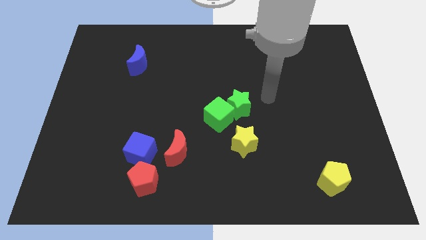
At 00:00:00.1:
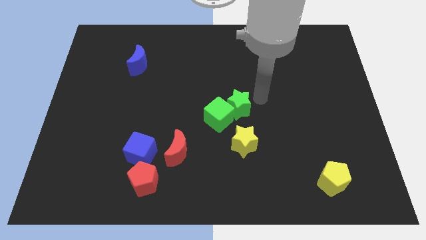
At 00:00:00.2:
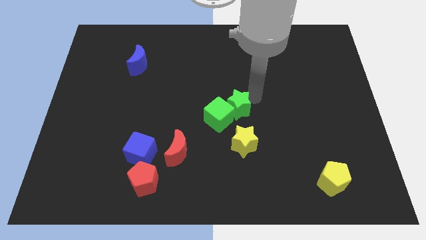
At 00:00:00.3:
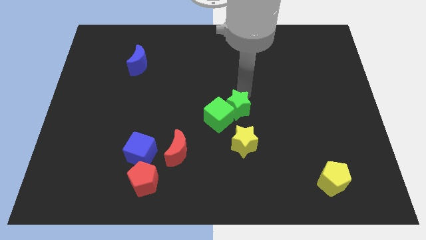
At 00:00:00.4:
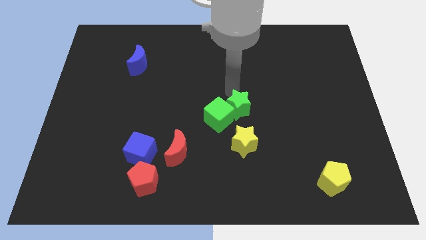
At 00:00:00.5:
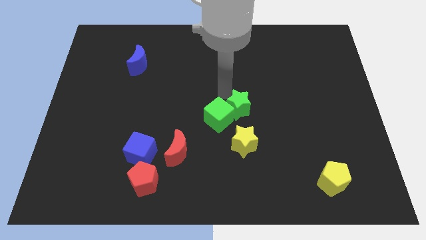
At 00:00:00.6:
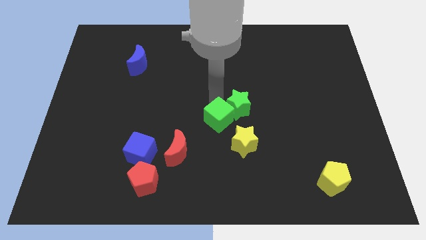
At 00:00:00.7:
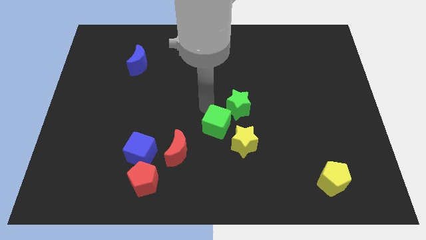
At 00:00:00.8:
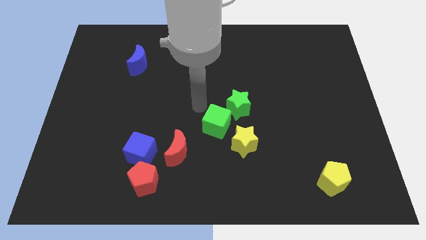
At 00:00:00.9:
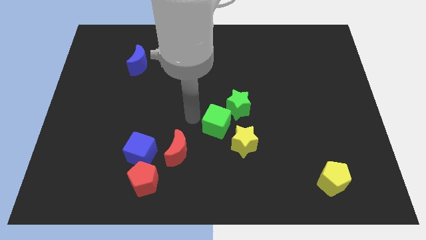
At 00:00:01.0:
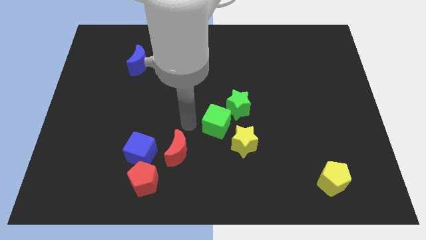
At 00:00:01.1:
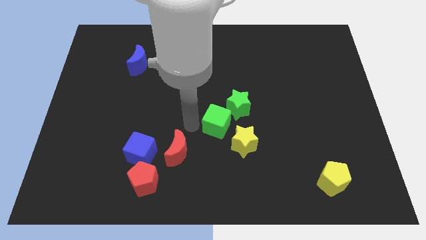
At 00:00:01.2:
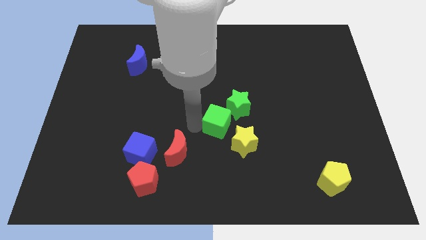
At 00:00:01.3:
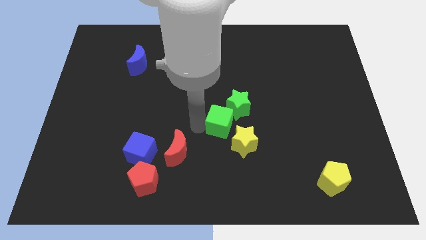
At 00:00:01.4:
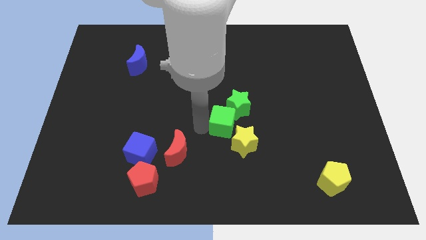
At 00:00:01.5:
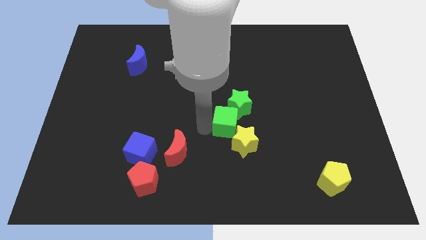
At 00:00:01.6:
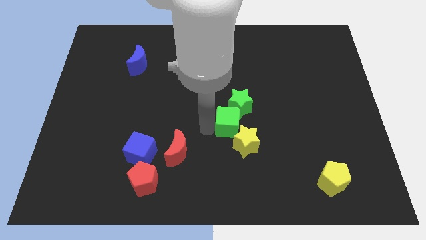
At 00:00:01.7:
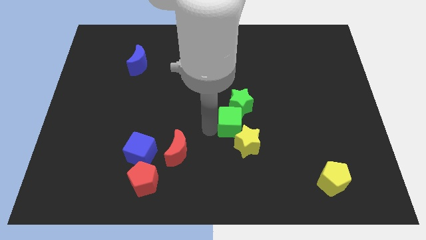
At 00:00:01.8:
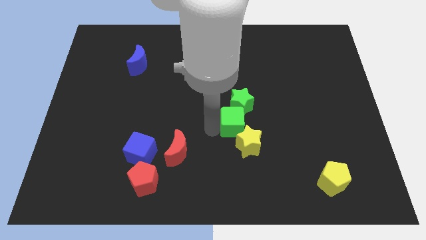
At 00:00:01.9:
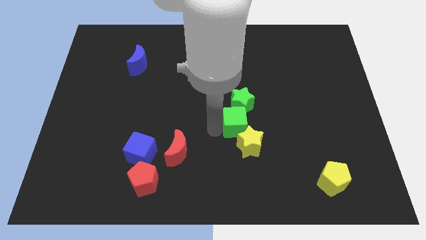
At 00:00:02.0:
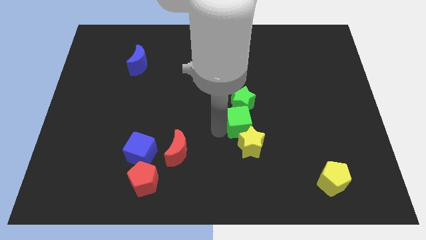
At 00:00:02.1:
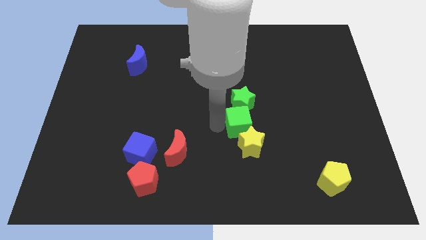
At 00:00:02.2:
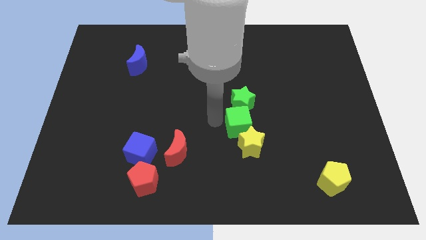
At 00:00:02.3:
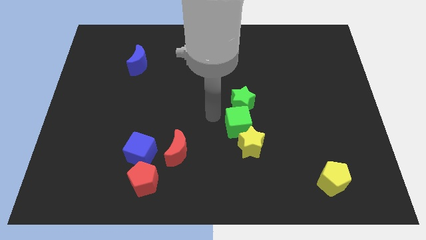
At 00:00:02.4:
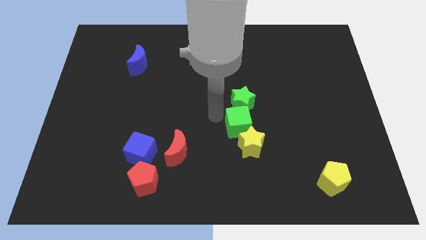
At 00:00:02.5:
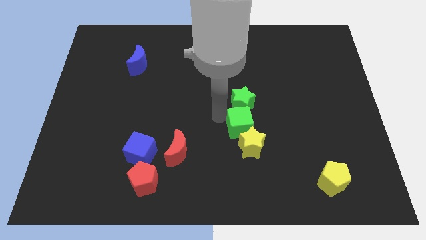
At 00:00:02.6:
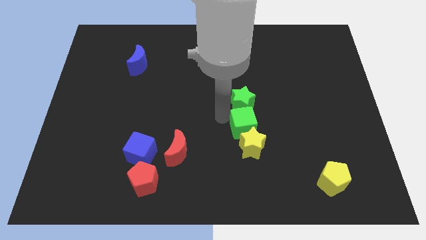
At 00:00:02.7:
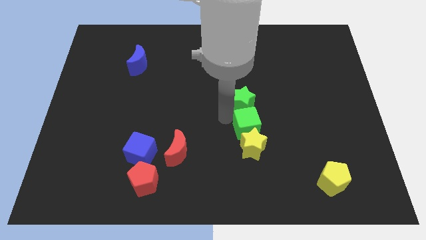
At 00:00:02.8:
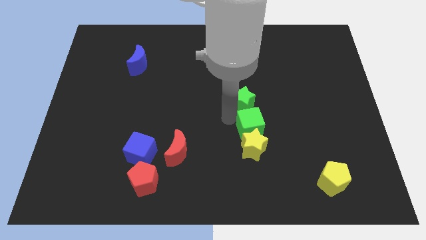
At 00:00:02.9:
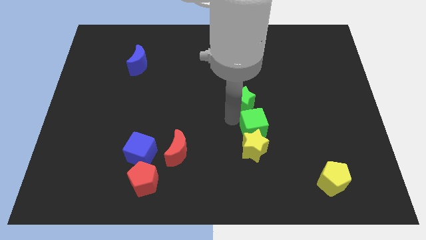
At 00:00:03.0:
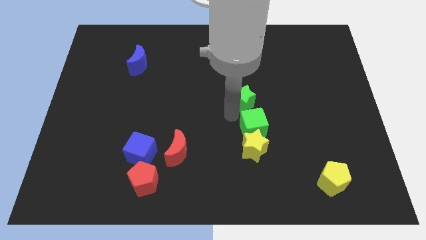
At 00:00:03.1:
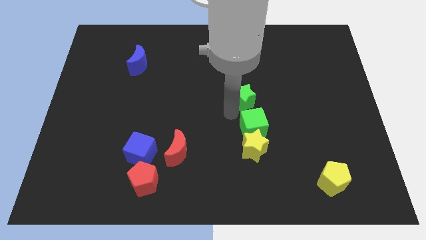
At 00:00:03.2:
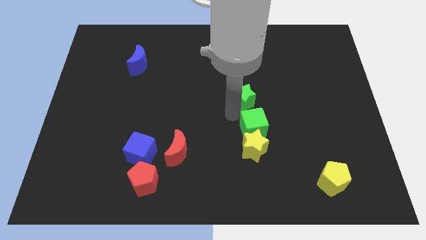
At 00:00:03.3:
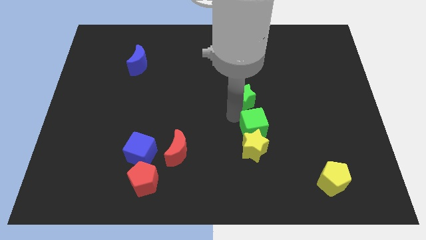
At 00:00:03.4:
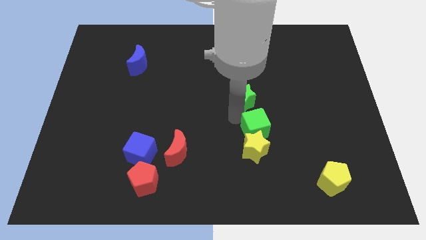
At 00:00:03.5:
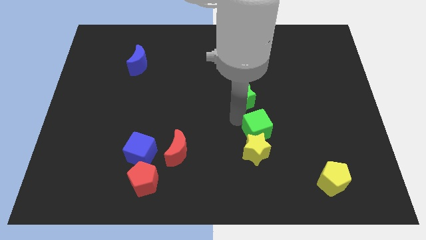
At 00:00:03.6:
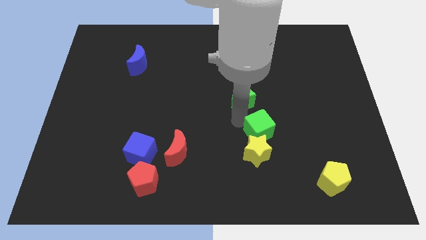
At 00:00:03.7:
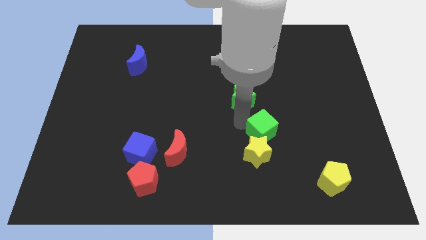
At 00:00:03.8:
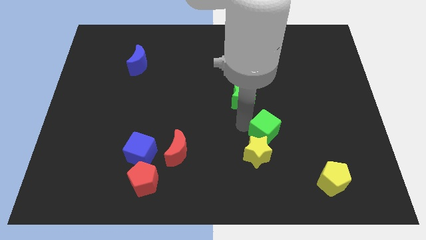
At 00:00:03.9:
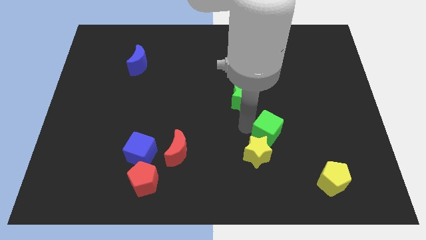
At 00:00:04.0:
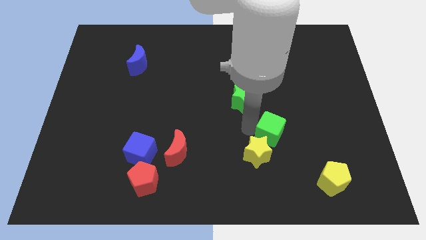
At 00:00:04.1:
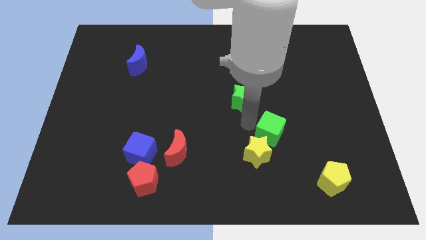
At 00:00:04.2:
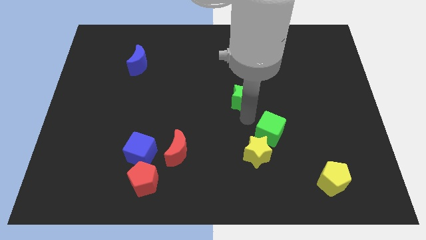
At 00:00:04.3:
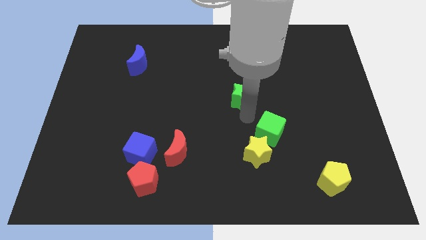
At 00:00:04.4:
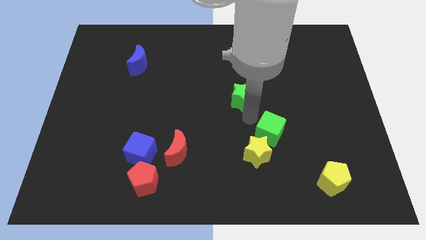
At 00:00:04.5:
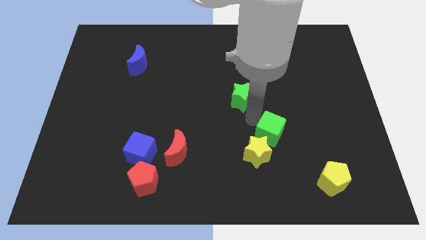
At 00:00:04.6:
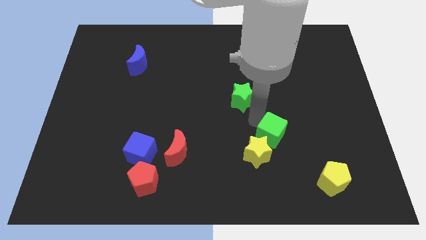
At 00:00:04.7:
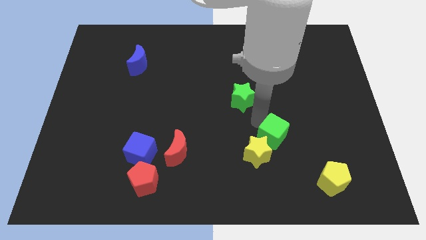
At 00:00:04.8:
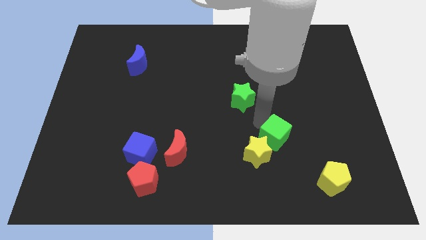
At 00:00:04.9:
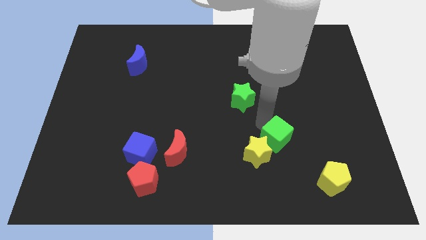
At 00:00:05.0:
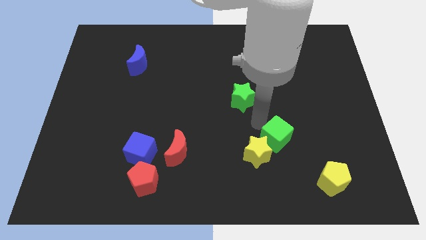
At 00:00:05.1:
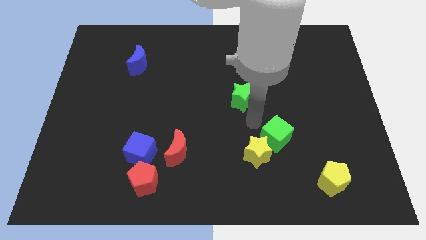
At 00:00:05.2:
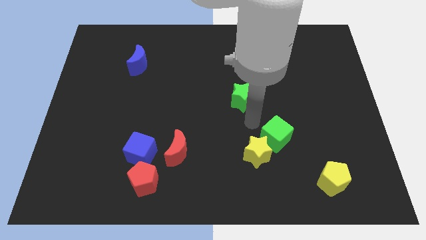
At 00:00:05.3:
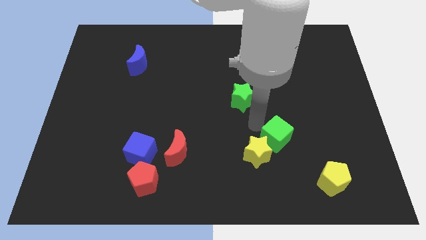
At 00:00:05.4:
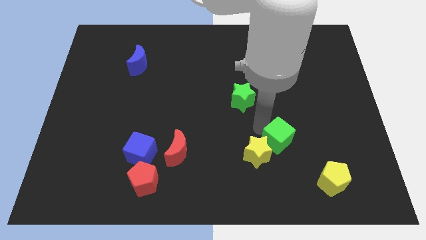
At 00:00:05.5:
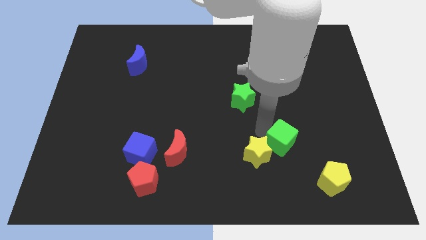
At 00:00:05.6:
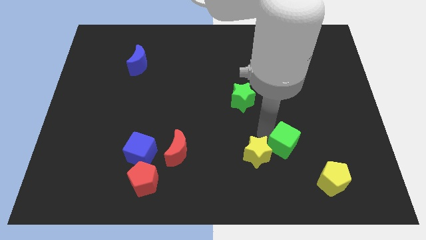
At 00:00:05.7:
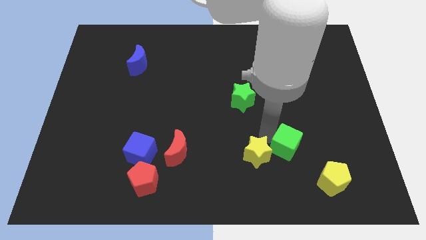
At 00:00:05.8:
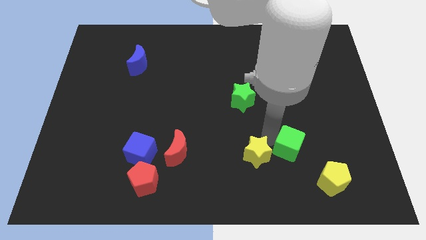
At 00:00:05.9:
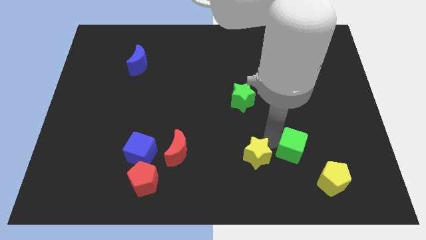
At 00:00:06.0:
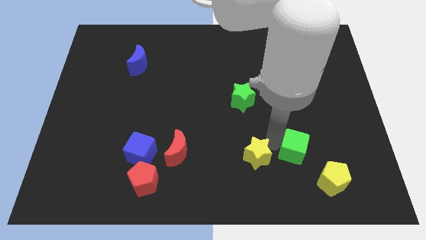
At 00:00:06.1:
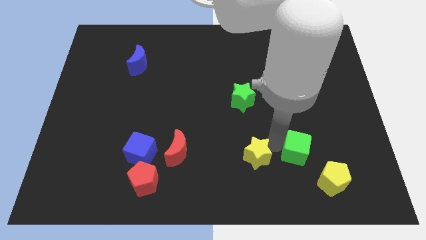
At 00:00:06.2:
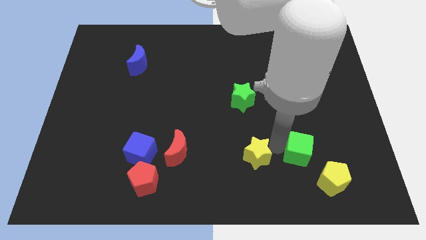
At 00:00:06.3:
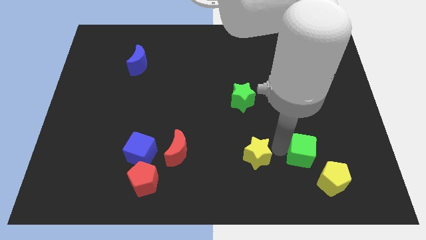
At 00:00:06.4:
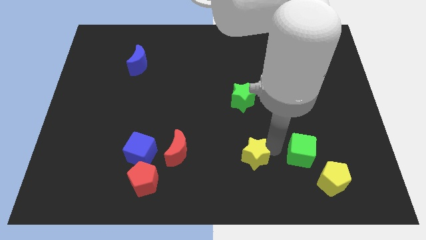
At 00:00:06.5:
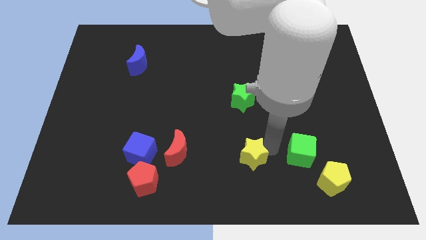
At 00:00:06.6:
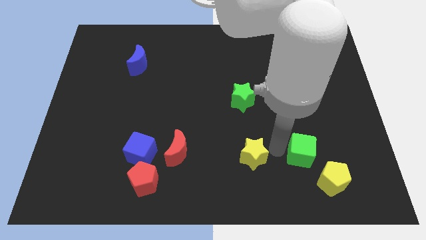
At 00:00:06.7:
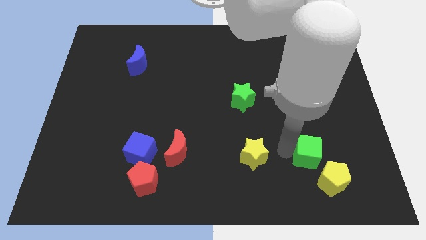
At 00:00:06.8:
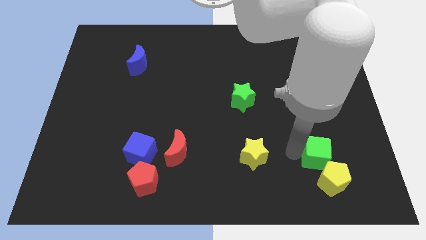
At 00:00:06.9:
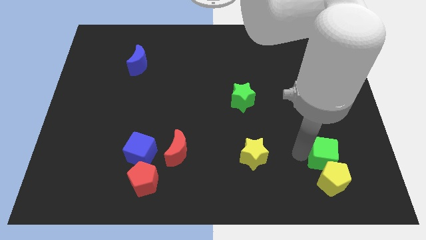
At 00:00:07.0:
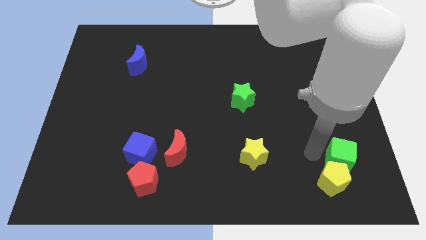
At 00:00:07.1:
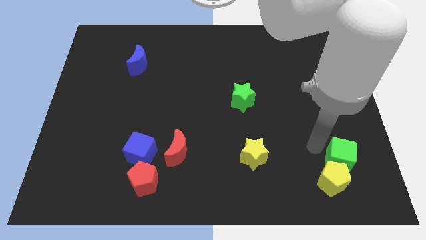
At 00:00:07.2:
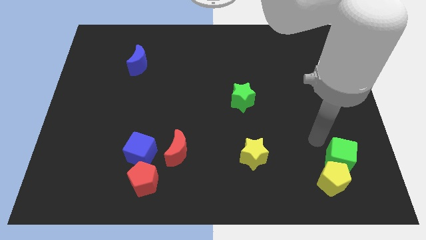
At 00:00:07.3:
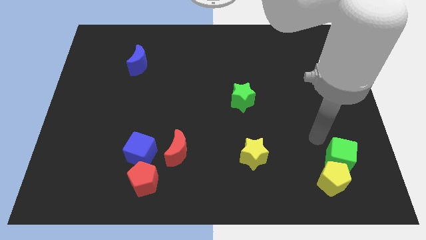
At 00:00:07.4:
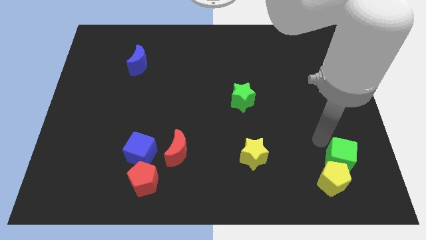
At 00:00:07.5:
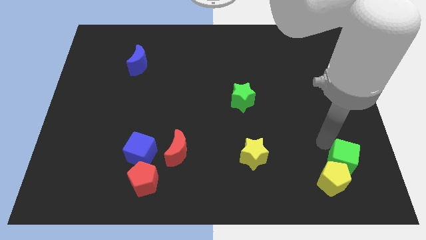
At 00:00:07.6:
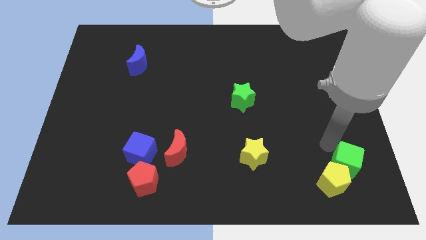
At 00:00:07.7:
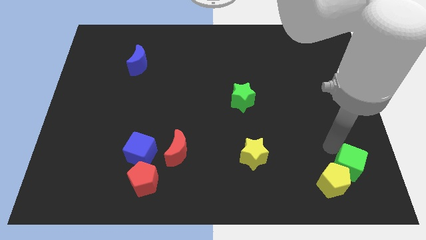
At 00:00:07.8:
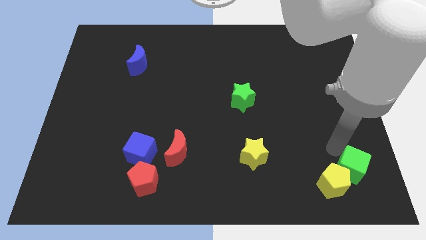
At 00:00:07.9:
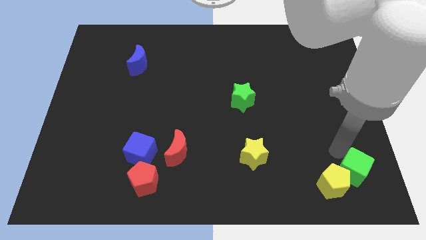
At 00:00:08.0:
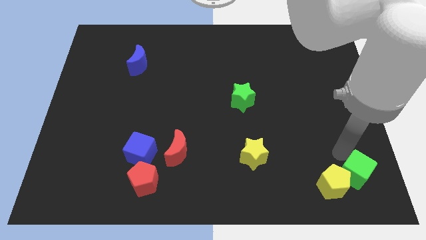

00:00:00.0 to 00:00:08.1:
slide the green cube to the bottom right of the board
